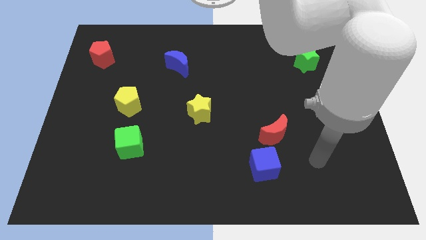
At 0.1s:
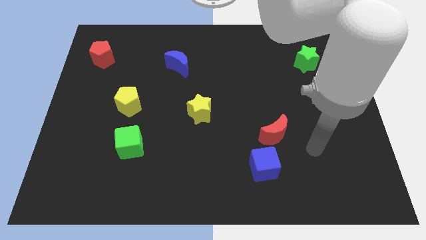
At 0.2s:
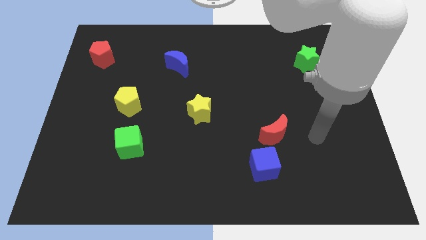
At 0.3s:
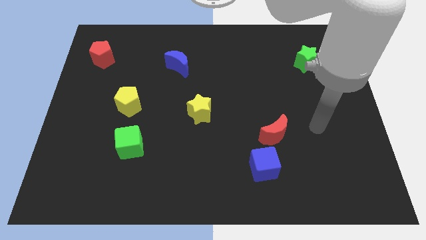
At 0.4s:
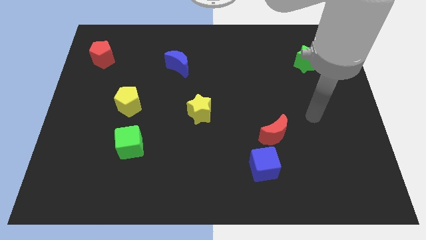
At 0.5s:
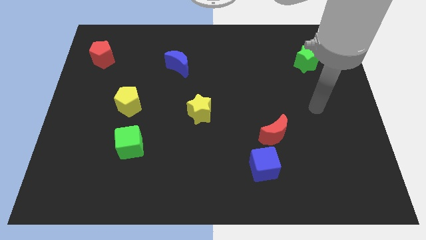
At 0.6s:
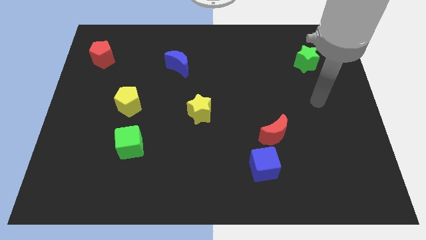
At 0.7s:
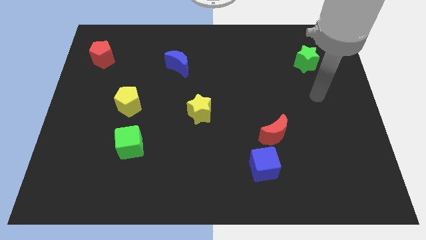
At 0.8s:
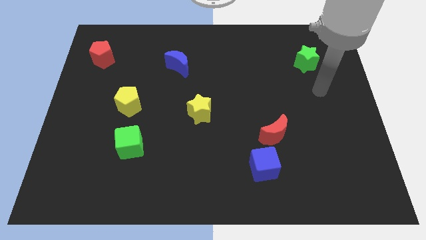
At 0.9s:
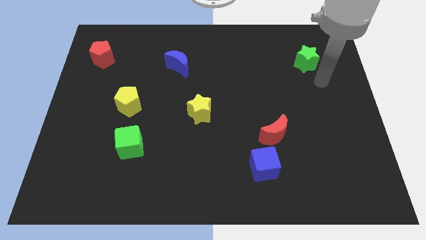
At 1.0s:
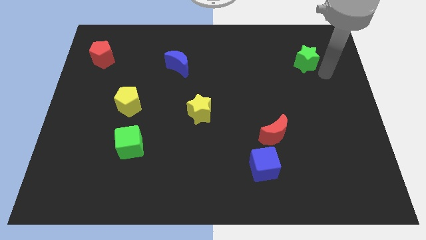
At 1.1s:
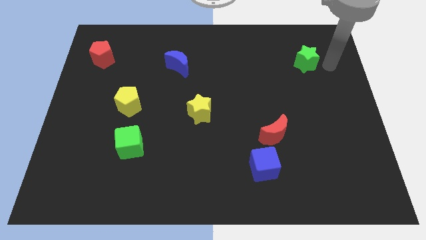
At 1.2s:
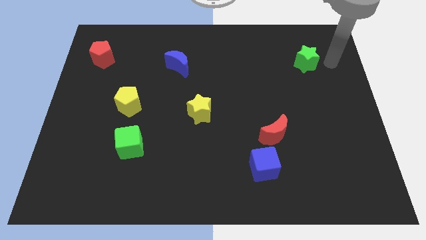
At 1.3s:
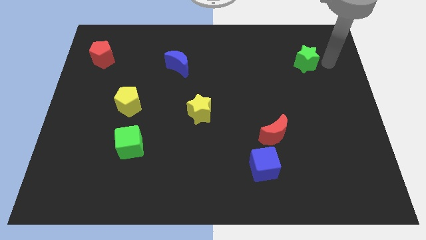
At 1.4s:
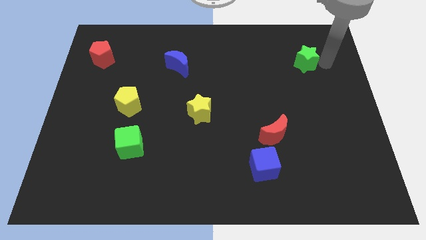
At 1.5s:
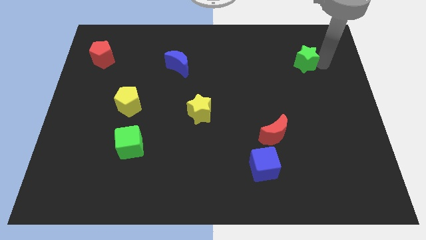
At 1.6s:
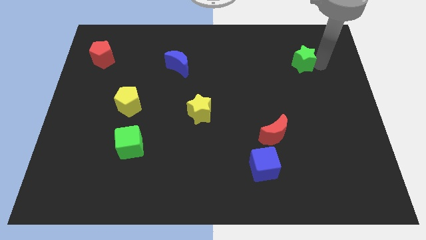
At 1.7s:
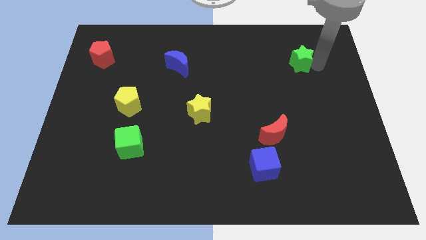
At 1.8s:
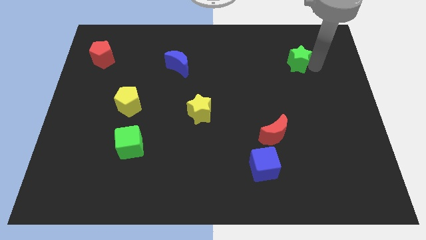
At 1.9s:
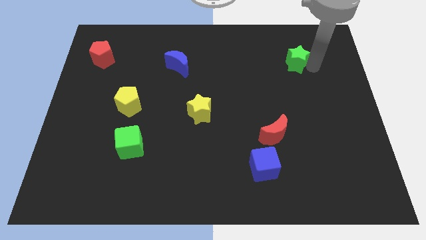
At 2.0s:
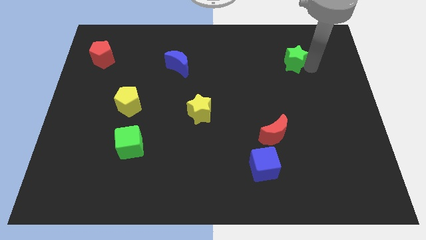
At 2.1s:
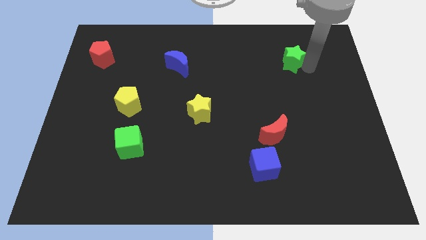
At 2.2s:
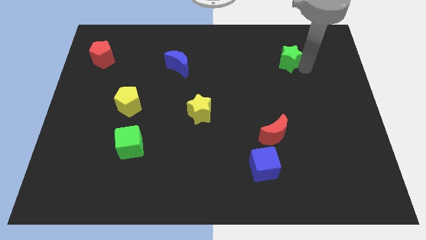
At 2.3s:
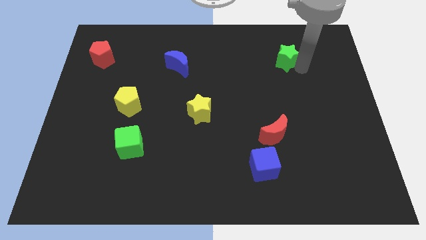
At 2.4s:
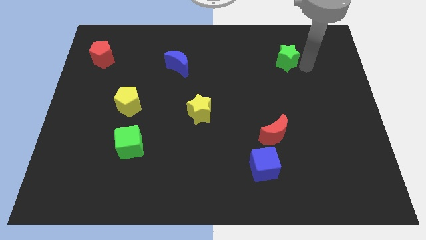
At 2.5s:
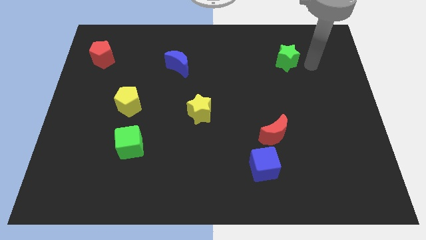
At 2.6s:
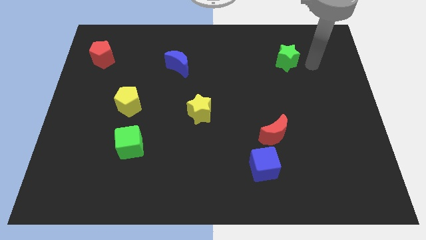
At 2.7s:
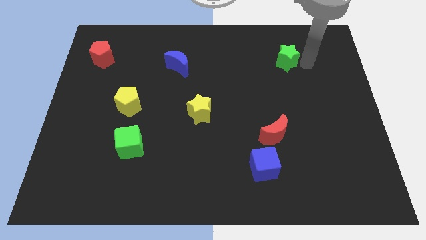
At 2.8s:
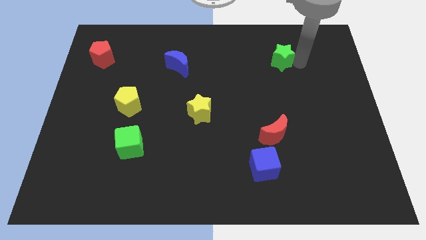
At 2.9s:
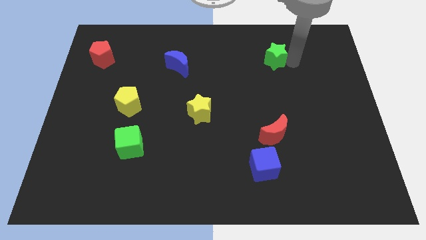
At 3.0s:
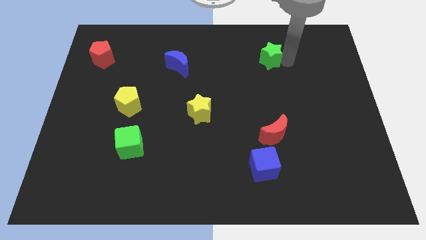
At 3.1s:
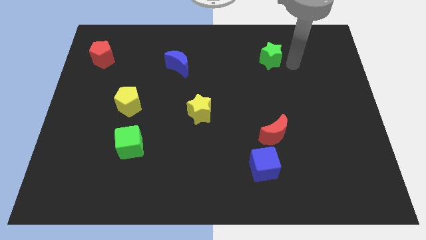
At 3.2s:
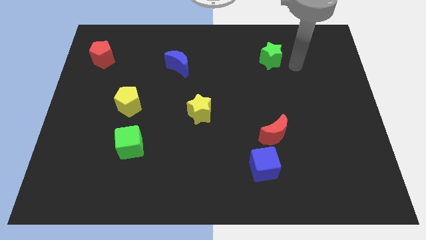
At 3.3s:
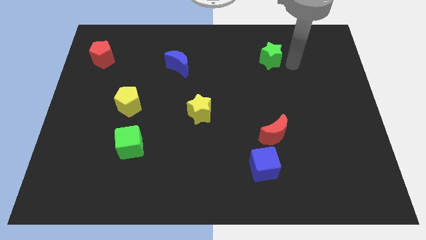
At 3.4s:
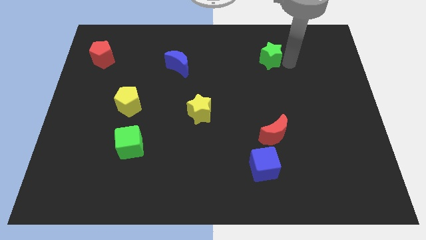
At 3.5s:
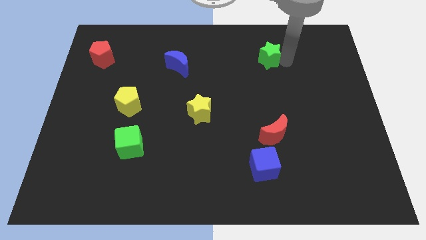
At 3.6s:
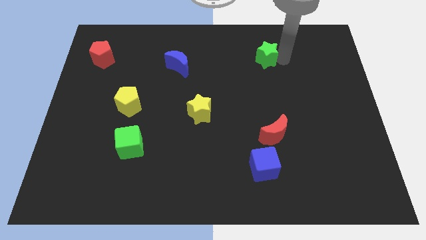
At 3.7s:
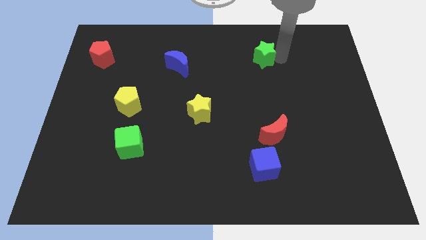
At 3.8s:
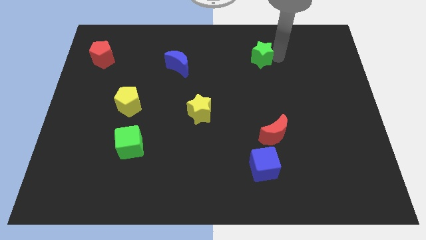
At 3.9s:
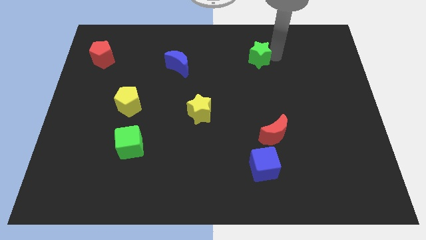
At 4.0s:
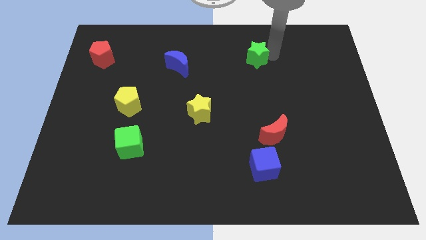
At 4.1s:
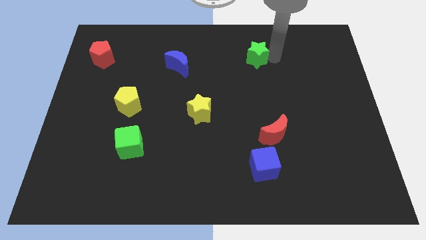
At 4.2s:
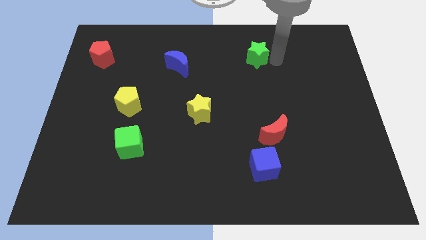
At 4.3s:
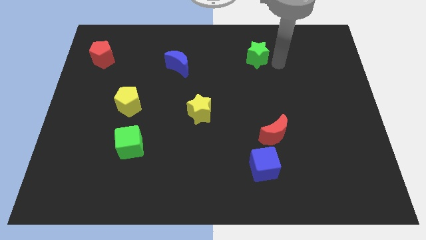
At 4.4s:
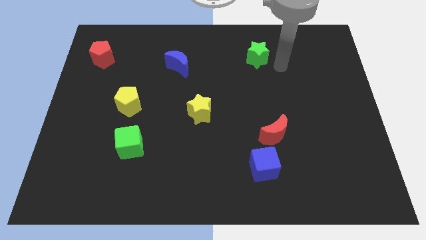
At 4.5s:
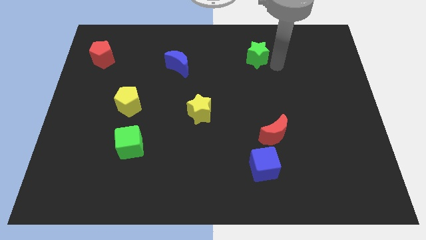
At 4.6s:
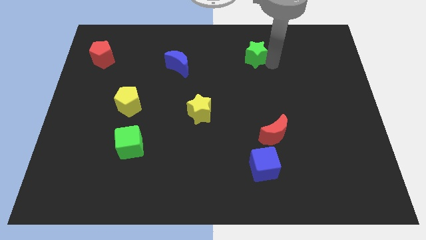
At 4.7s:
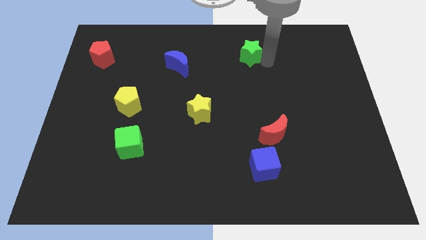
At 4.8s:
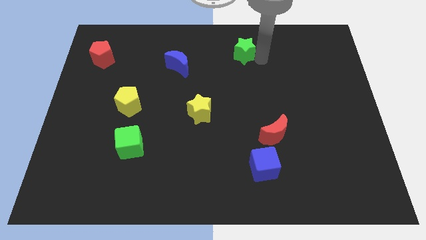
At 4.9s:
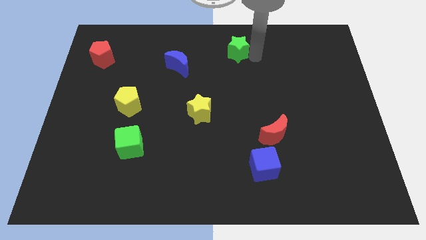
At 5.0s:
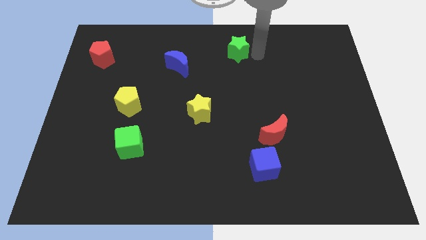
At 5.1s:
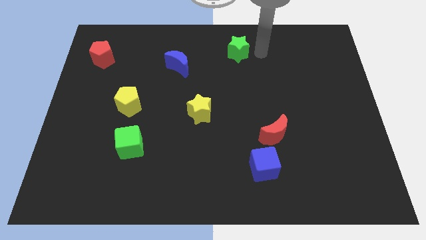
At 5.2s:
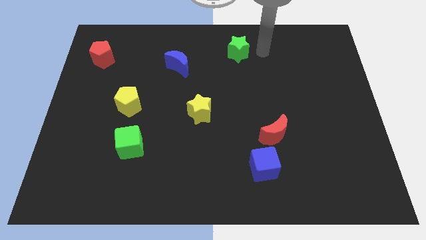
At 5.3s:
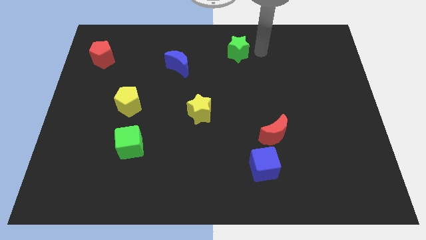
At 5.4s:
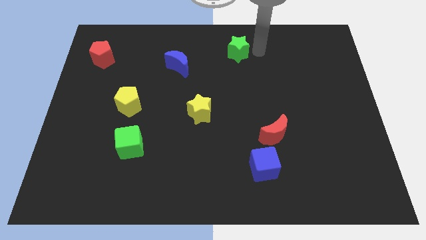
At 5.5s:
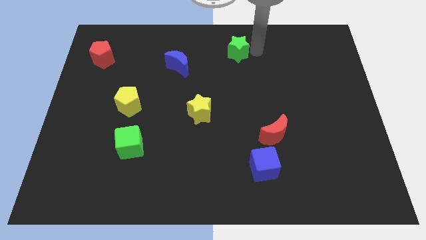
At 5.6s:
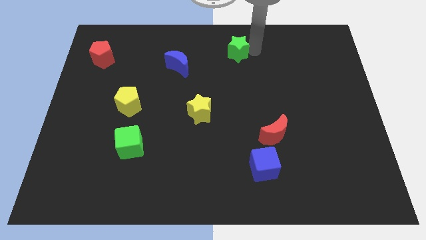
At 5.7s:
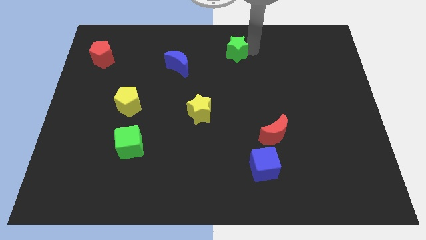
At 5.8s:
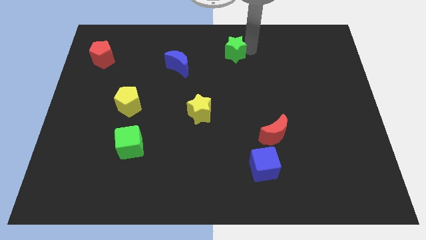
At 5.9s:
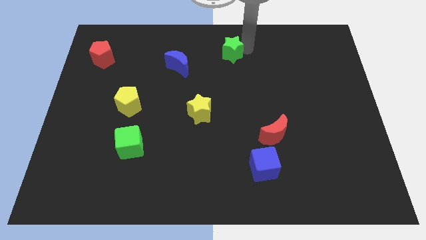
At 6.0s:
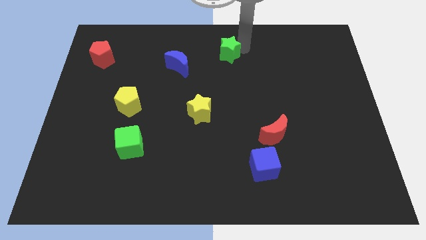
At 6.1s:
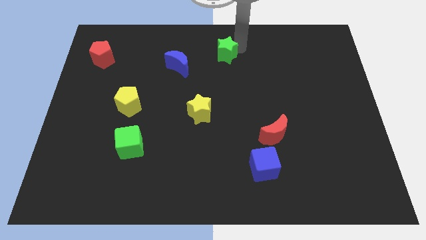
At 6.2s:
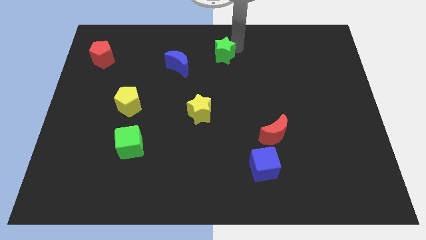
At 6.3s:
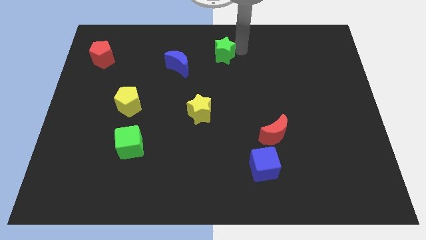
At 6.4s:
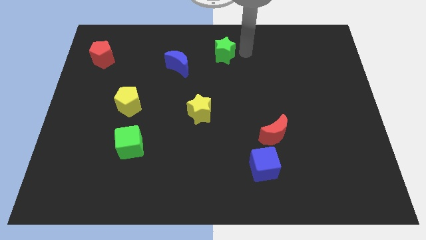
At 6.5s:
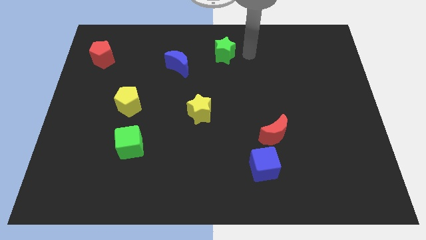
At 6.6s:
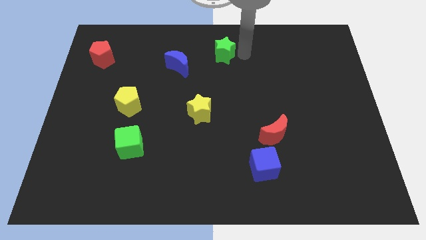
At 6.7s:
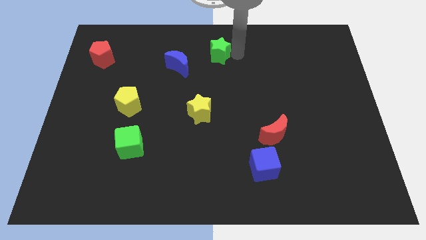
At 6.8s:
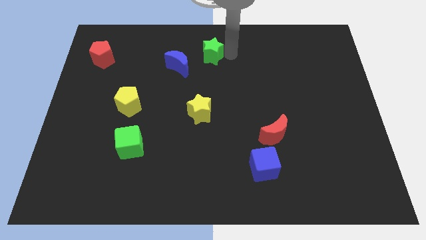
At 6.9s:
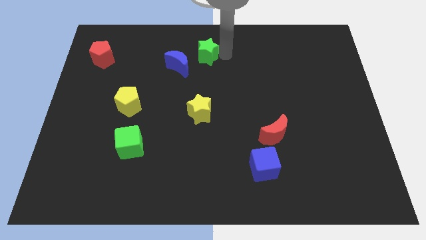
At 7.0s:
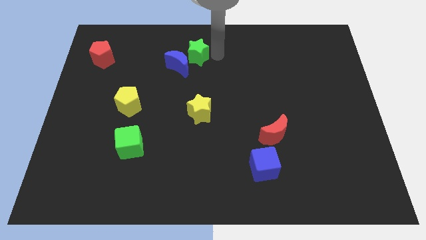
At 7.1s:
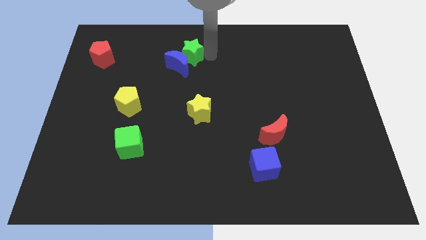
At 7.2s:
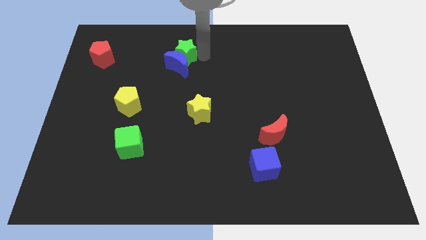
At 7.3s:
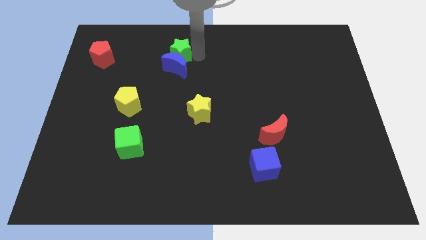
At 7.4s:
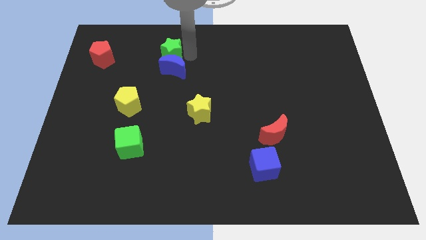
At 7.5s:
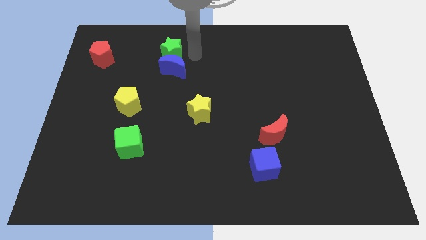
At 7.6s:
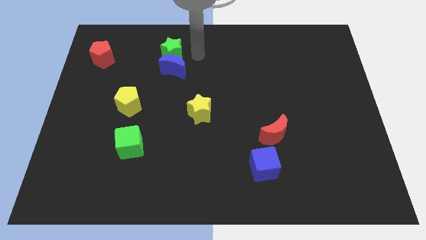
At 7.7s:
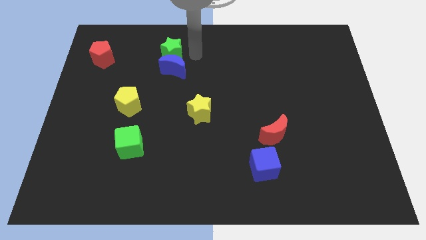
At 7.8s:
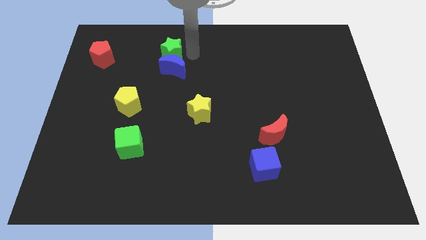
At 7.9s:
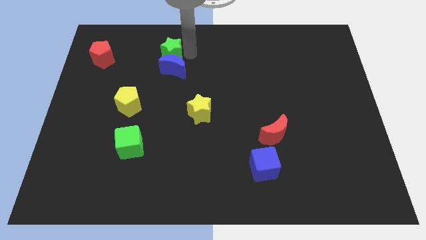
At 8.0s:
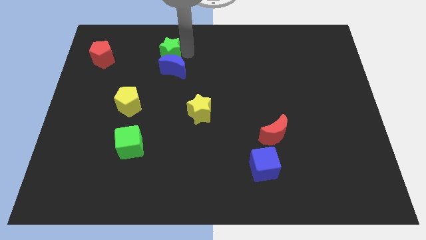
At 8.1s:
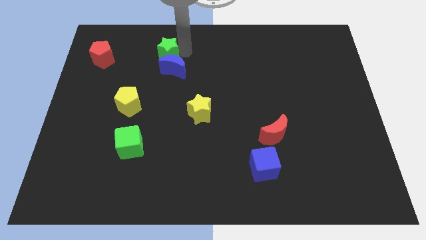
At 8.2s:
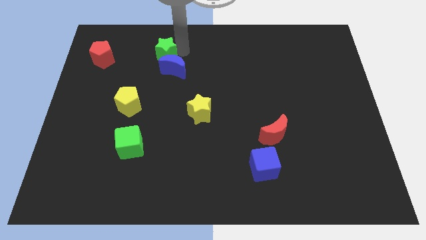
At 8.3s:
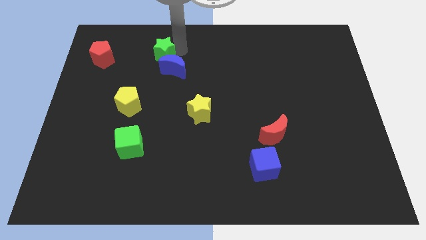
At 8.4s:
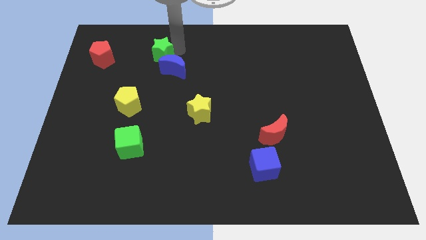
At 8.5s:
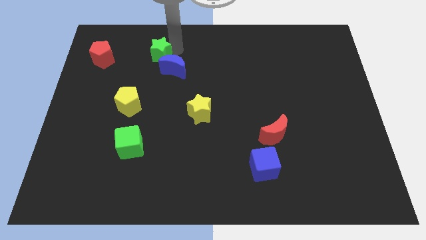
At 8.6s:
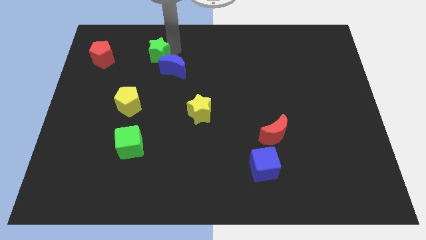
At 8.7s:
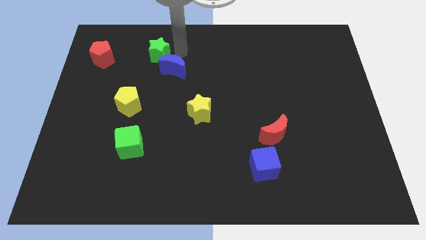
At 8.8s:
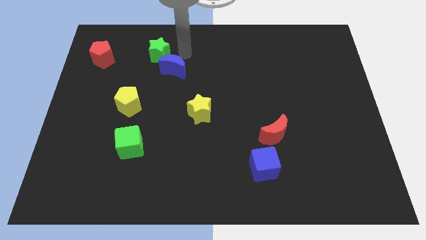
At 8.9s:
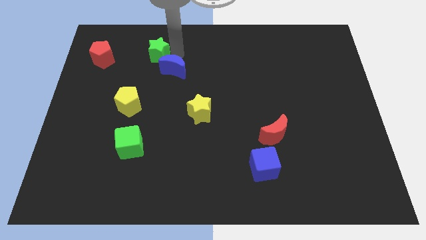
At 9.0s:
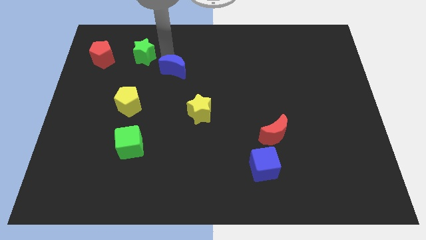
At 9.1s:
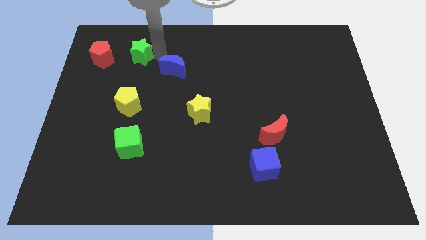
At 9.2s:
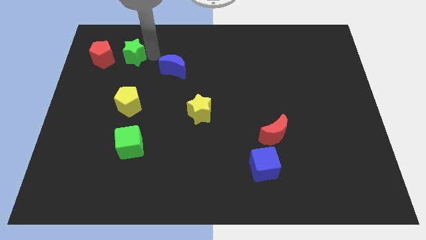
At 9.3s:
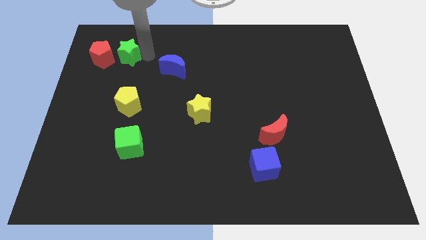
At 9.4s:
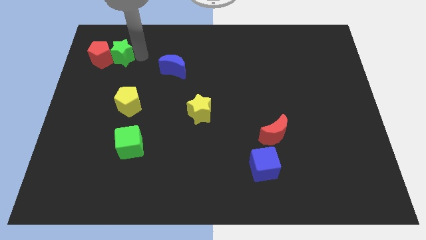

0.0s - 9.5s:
slide the green star towards the red pentagon
